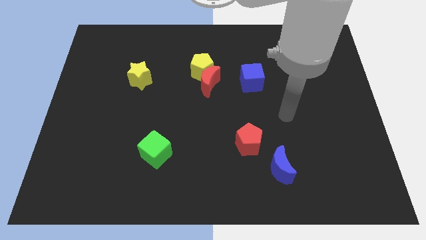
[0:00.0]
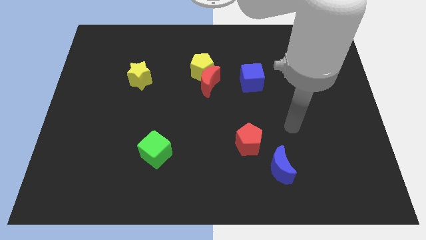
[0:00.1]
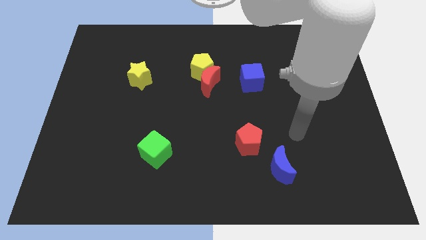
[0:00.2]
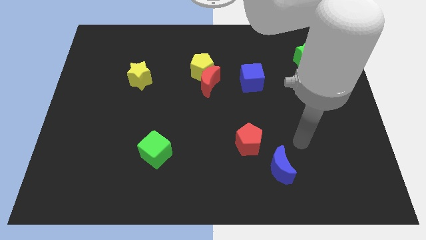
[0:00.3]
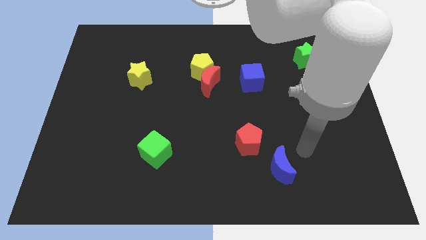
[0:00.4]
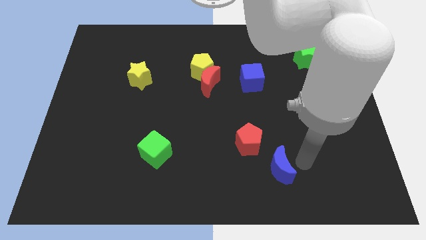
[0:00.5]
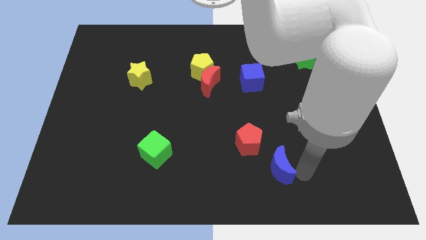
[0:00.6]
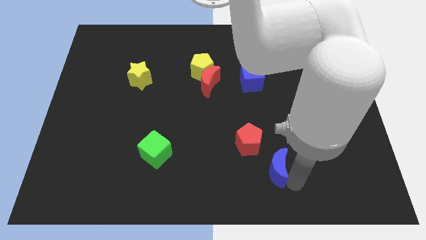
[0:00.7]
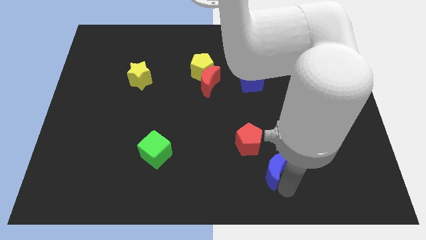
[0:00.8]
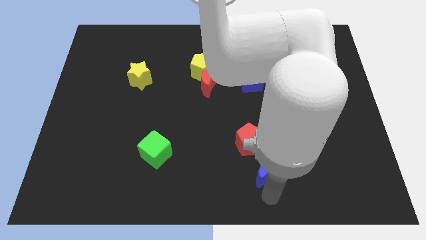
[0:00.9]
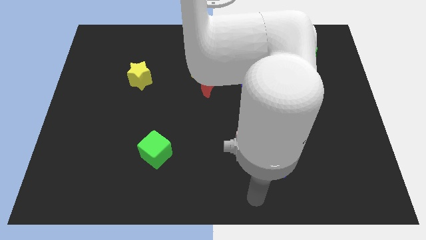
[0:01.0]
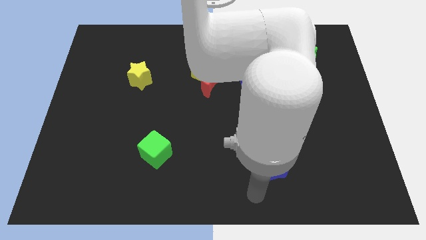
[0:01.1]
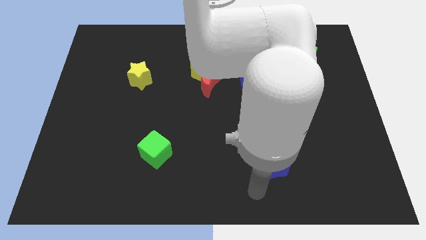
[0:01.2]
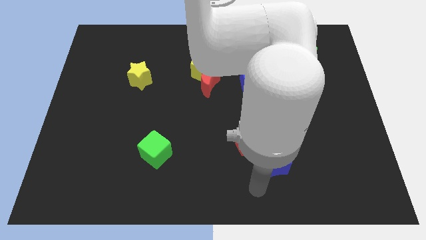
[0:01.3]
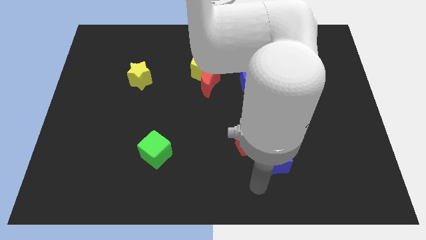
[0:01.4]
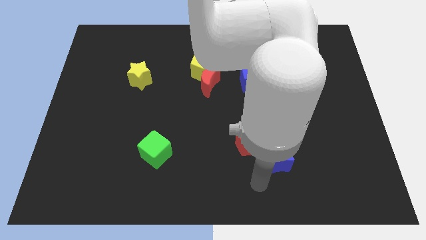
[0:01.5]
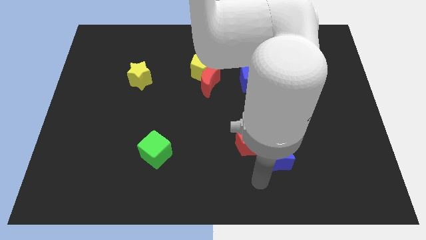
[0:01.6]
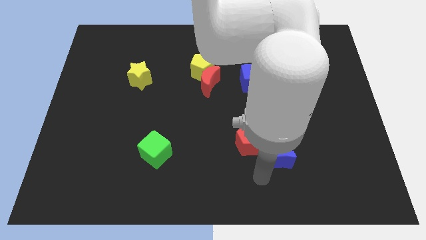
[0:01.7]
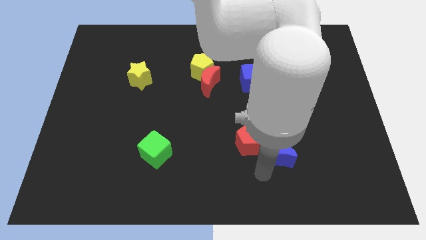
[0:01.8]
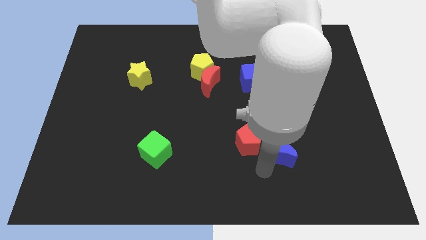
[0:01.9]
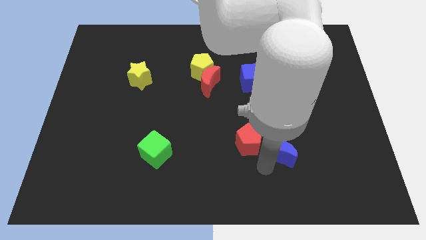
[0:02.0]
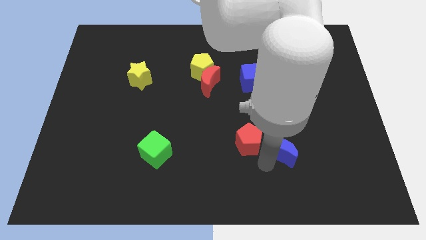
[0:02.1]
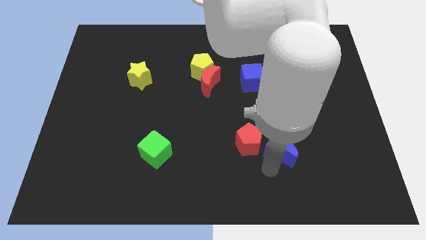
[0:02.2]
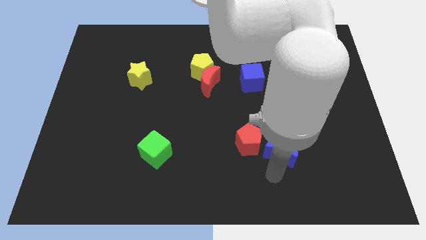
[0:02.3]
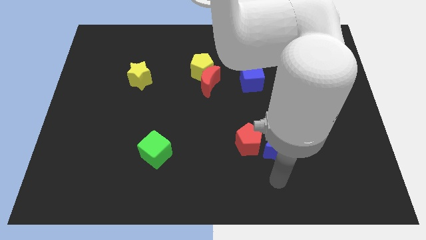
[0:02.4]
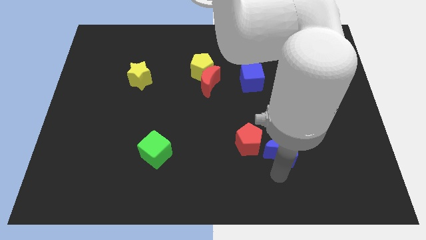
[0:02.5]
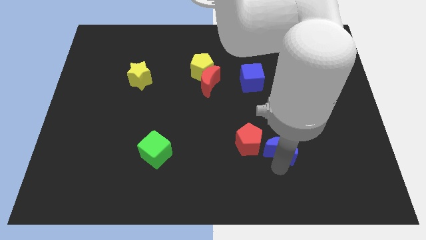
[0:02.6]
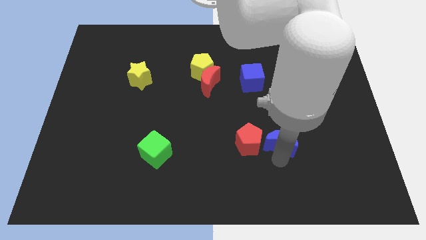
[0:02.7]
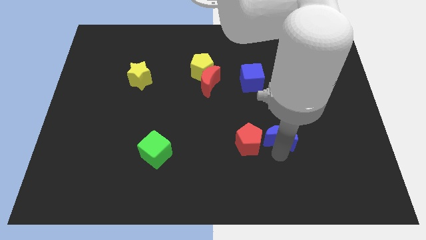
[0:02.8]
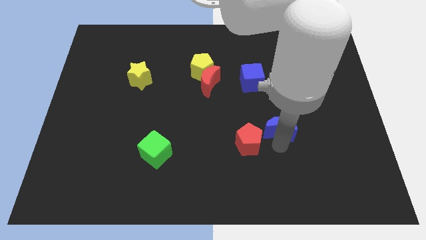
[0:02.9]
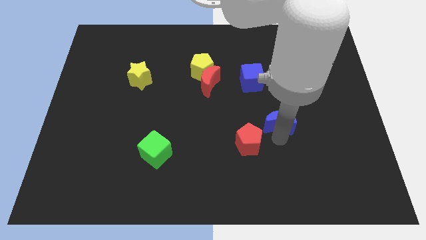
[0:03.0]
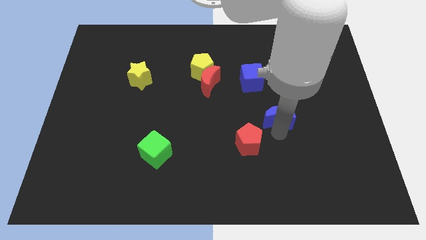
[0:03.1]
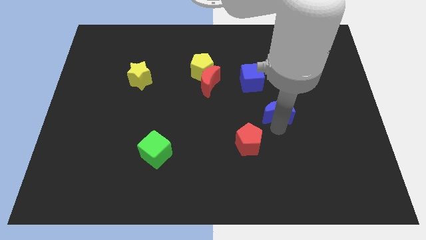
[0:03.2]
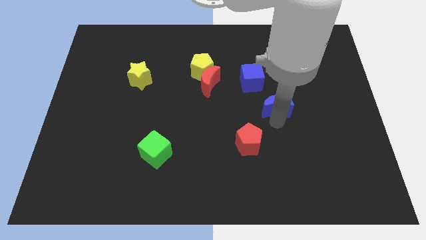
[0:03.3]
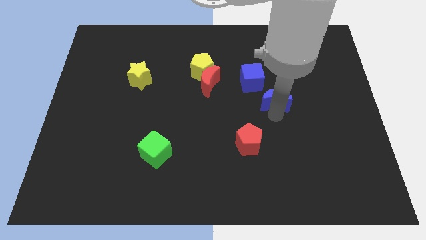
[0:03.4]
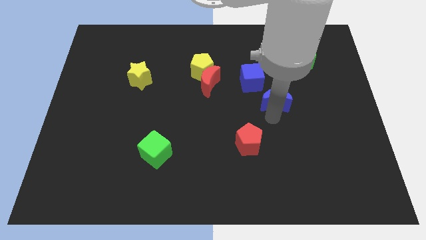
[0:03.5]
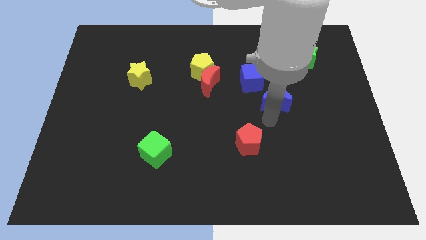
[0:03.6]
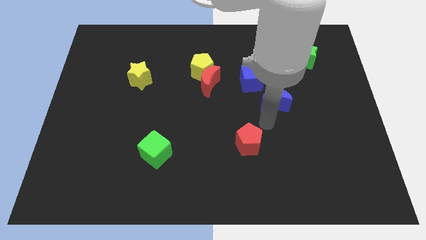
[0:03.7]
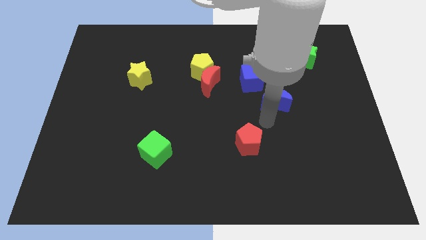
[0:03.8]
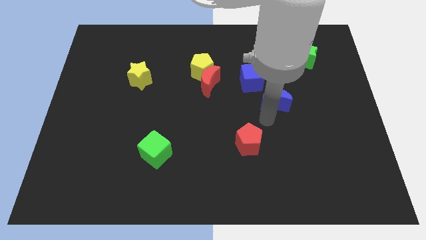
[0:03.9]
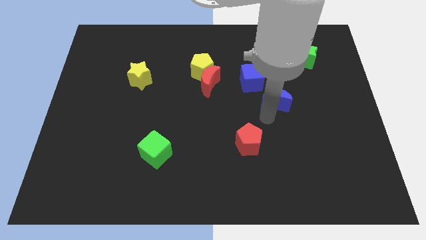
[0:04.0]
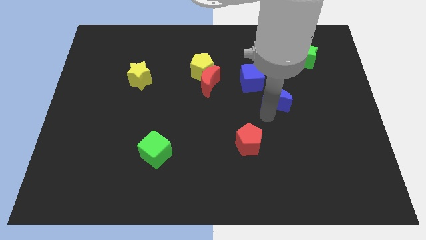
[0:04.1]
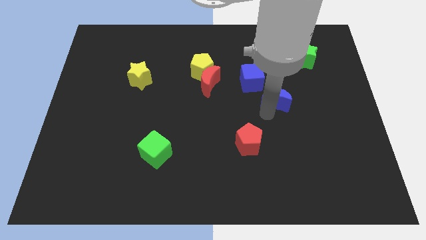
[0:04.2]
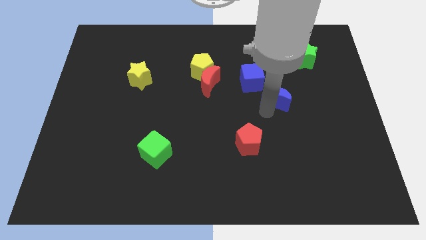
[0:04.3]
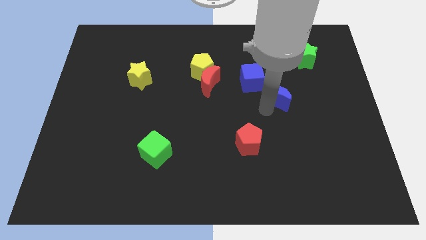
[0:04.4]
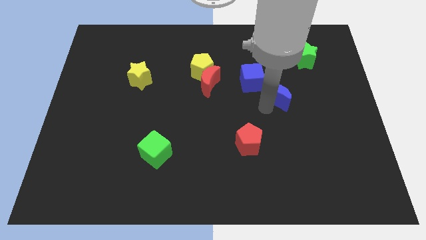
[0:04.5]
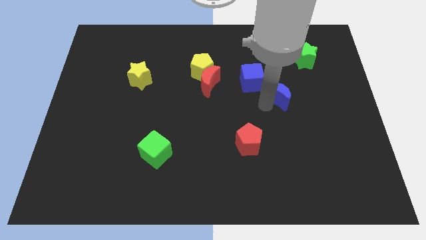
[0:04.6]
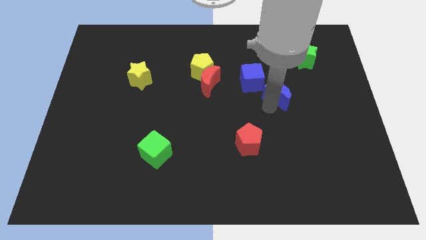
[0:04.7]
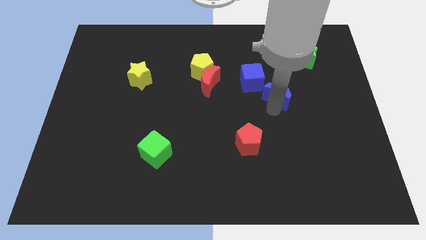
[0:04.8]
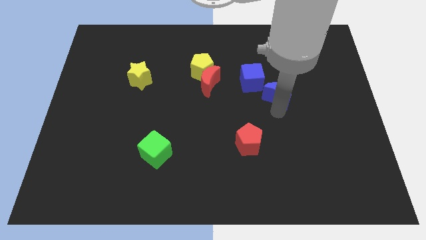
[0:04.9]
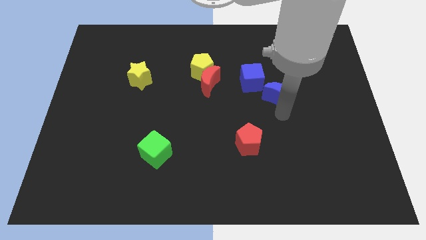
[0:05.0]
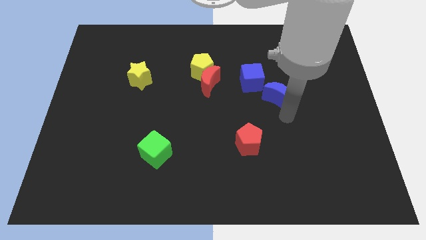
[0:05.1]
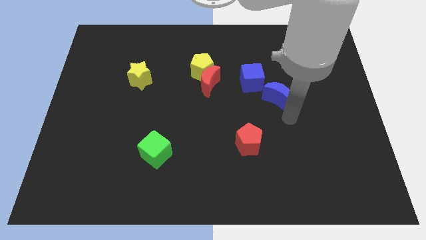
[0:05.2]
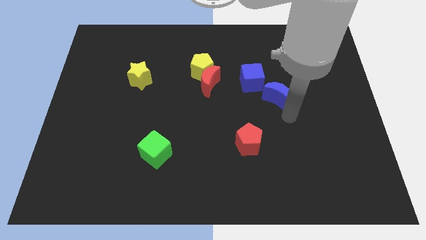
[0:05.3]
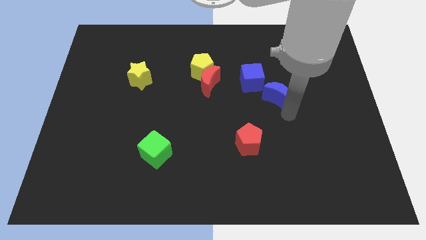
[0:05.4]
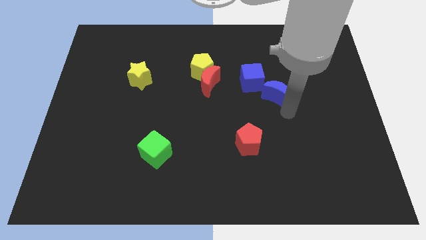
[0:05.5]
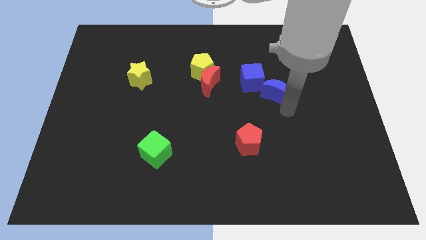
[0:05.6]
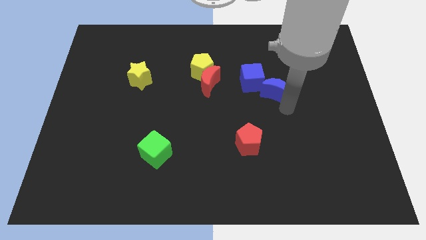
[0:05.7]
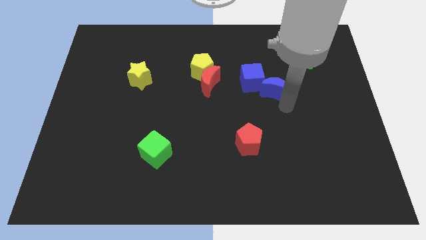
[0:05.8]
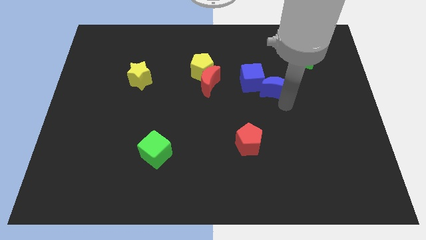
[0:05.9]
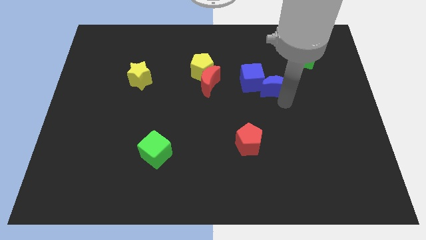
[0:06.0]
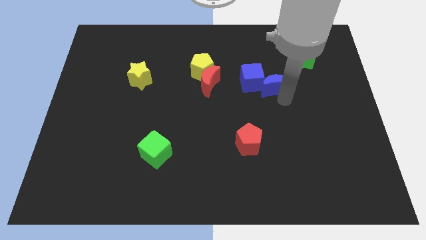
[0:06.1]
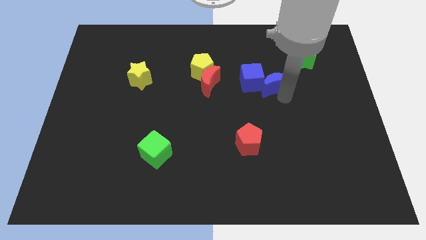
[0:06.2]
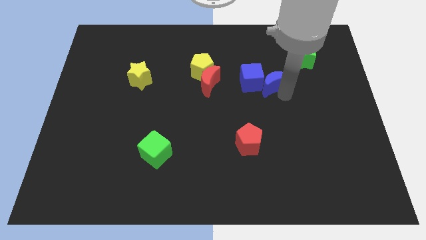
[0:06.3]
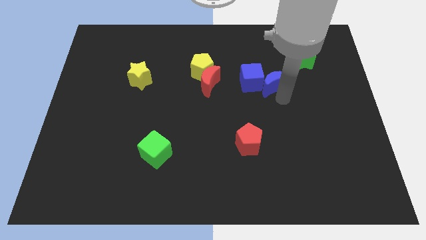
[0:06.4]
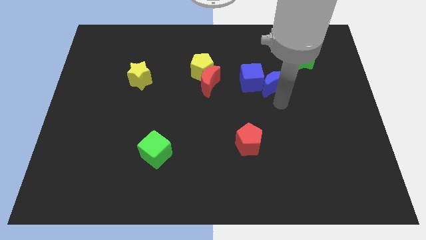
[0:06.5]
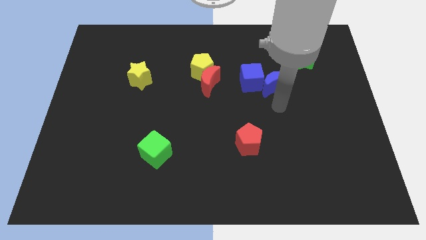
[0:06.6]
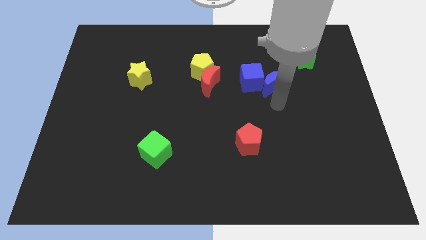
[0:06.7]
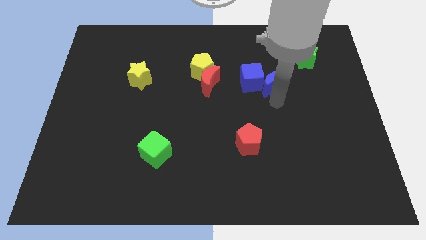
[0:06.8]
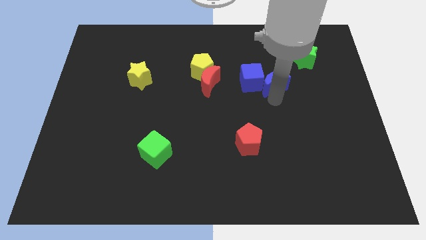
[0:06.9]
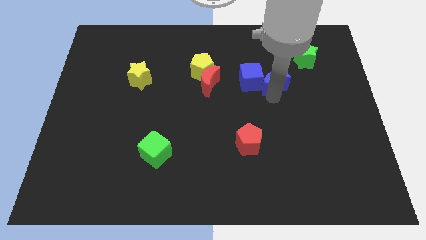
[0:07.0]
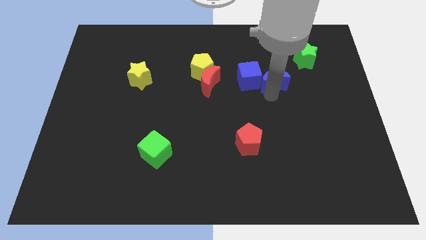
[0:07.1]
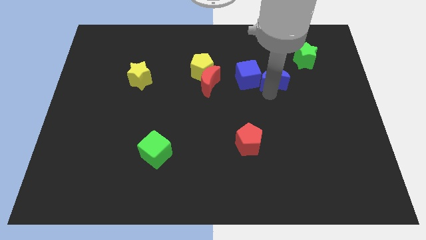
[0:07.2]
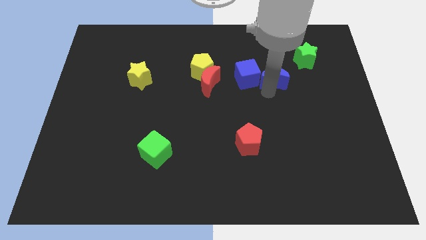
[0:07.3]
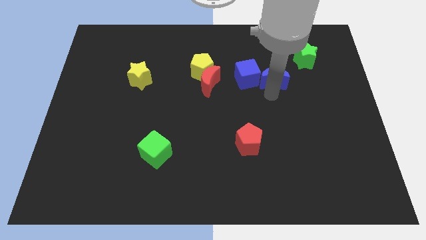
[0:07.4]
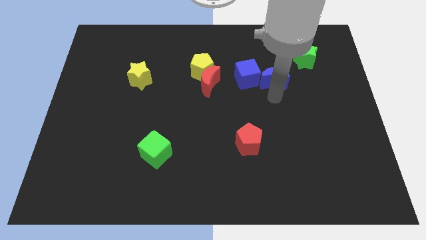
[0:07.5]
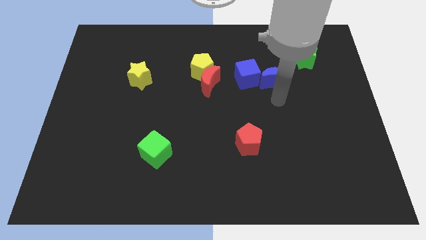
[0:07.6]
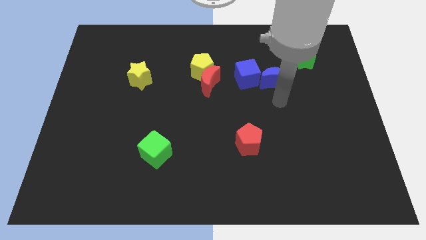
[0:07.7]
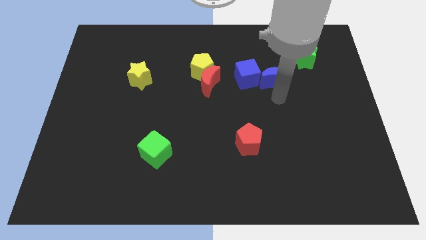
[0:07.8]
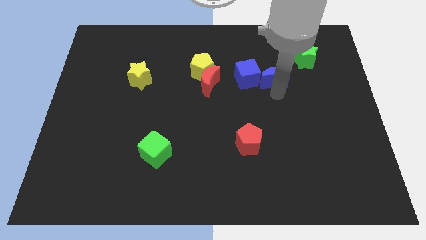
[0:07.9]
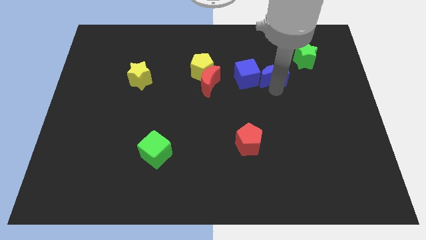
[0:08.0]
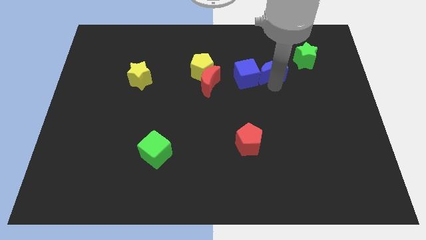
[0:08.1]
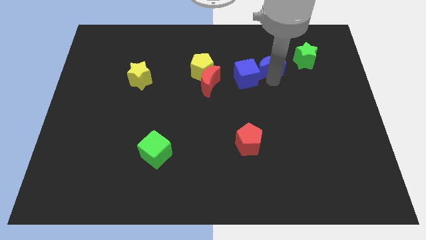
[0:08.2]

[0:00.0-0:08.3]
move the blue moon to the left side of the green star
